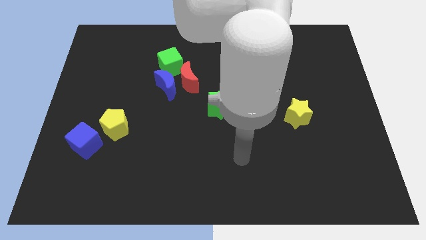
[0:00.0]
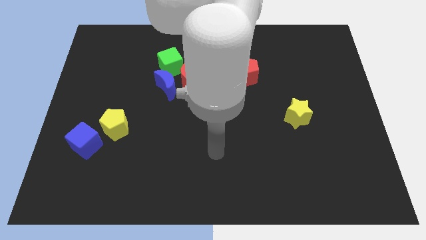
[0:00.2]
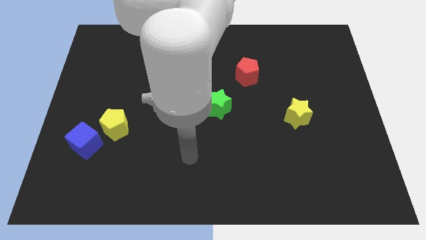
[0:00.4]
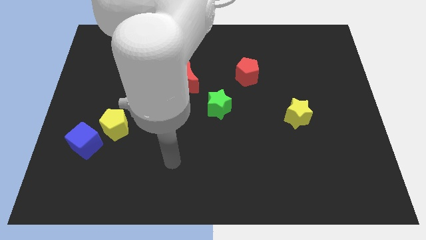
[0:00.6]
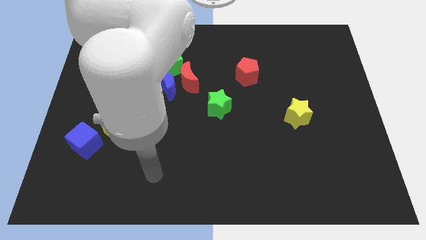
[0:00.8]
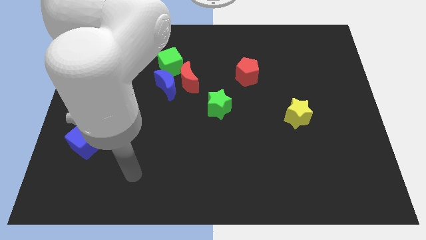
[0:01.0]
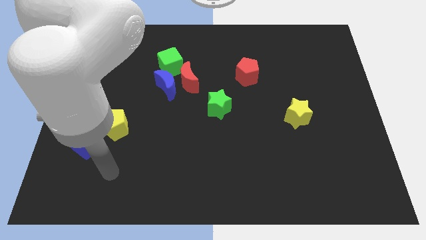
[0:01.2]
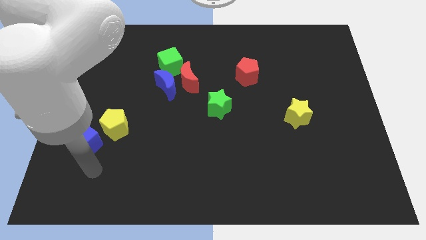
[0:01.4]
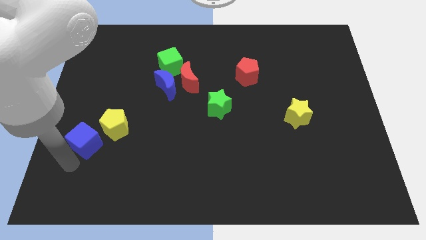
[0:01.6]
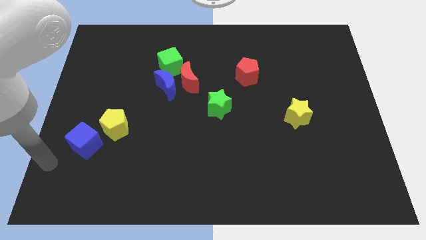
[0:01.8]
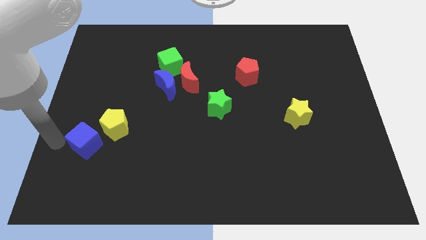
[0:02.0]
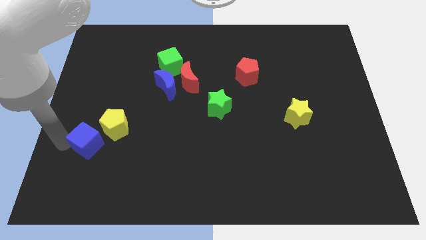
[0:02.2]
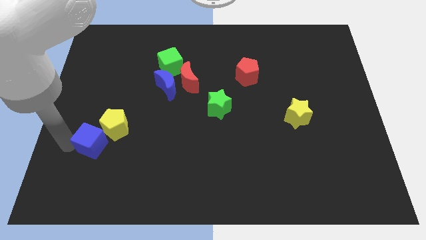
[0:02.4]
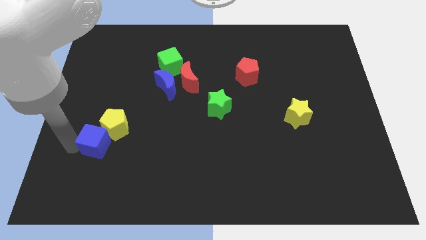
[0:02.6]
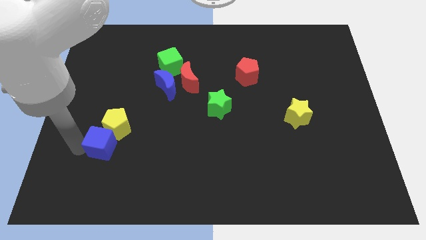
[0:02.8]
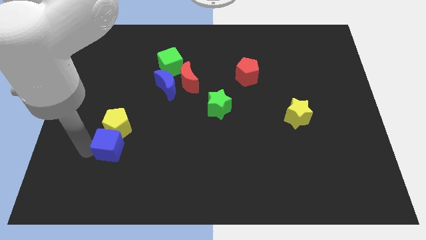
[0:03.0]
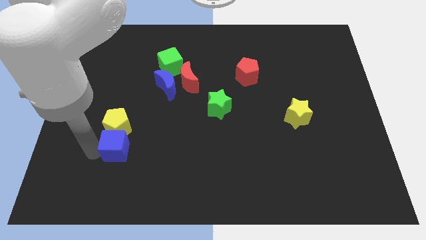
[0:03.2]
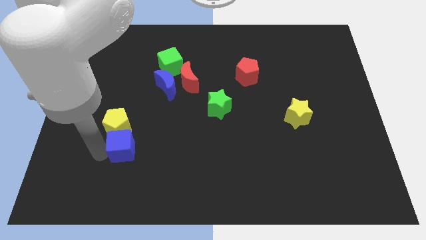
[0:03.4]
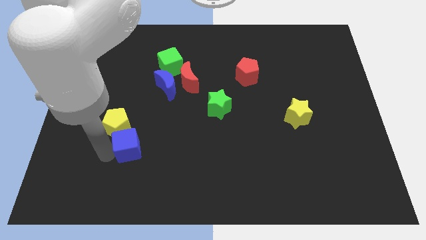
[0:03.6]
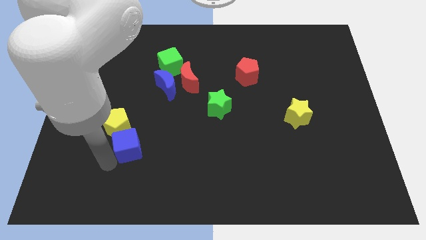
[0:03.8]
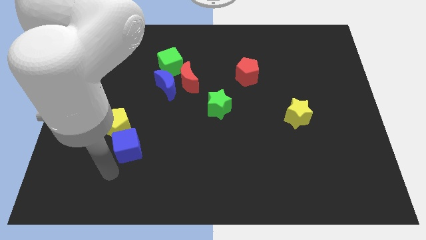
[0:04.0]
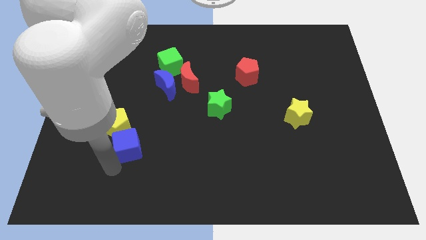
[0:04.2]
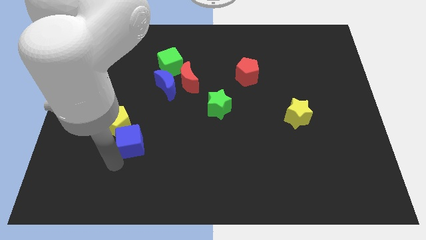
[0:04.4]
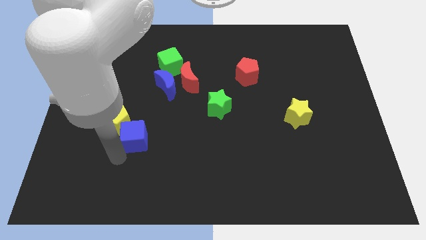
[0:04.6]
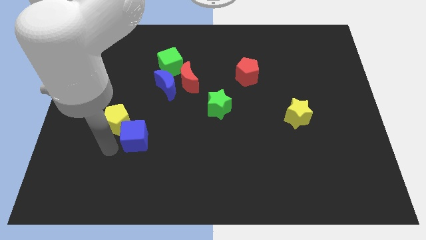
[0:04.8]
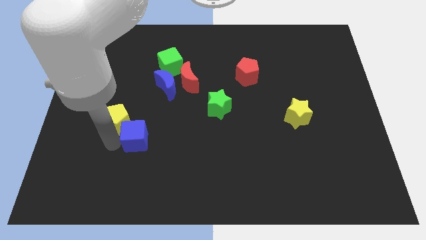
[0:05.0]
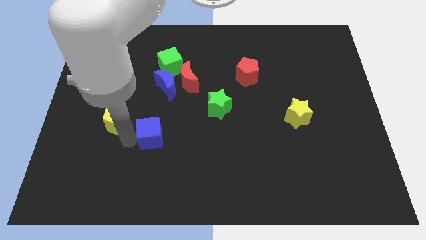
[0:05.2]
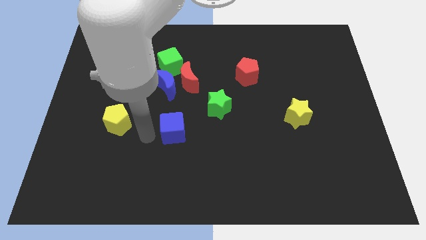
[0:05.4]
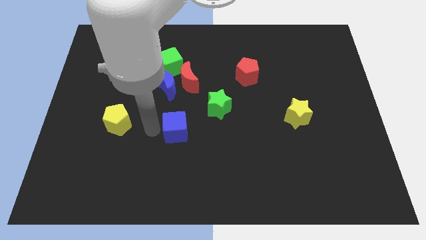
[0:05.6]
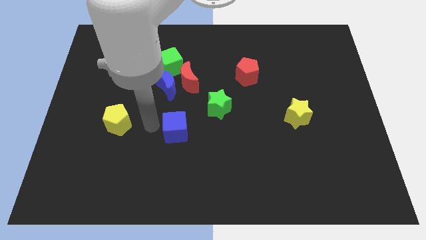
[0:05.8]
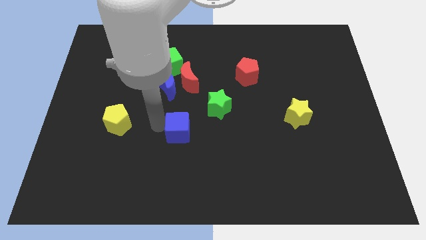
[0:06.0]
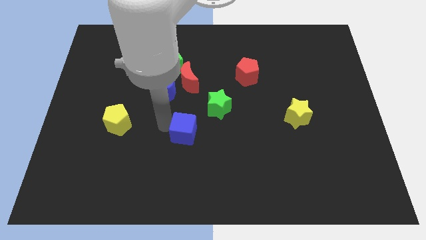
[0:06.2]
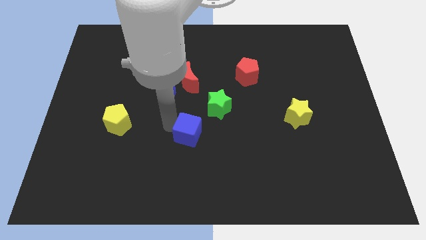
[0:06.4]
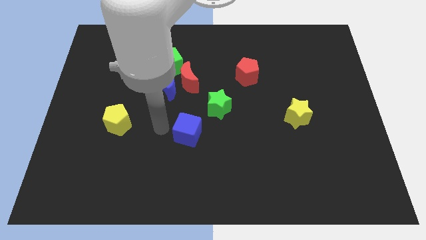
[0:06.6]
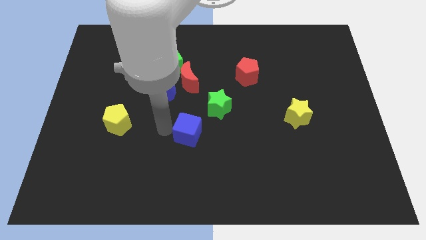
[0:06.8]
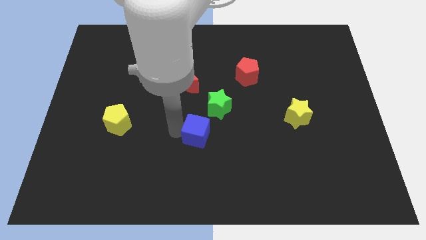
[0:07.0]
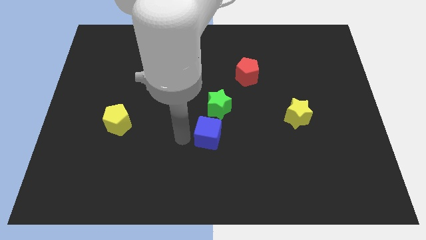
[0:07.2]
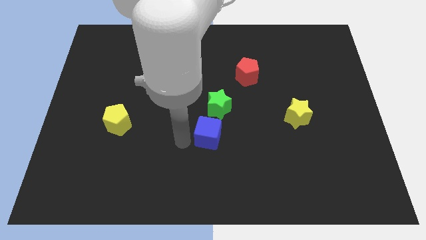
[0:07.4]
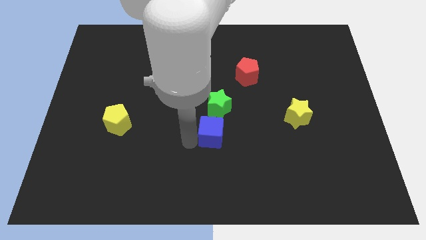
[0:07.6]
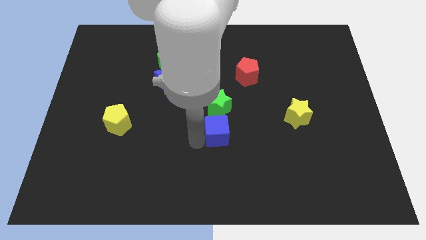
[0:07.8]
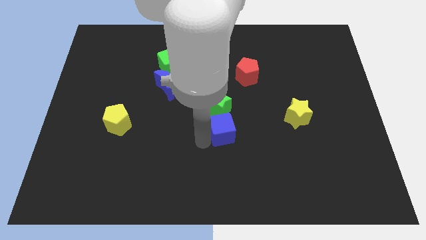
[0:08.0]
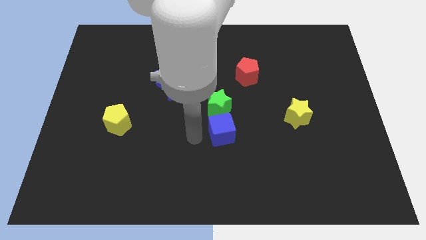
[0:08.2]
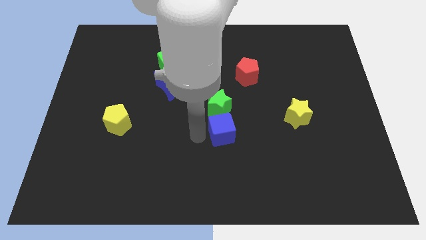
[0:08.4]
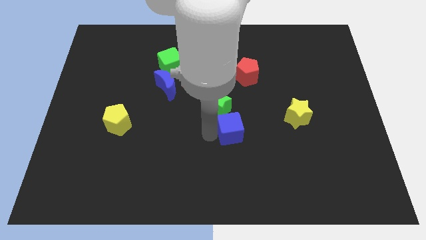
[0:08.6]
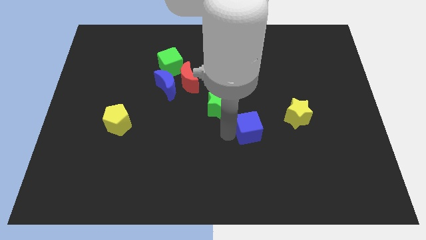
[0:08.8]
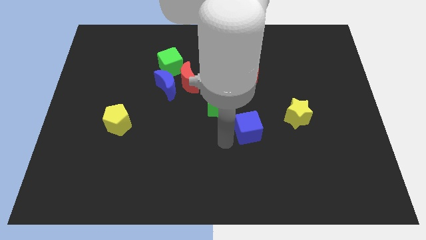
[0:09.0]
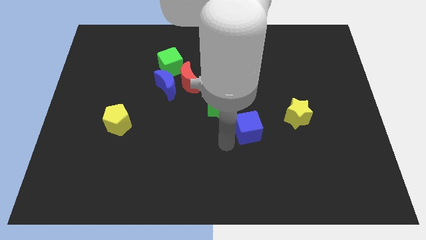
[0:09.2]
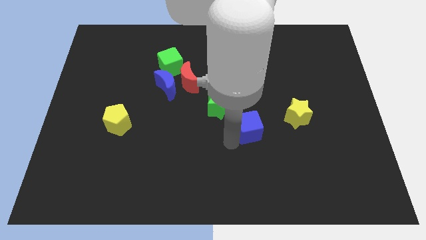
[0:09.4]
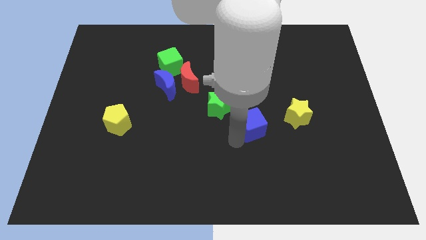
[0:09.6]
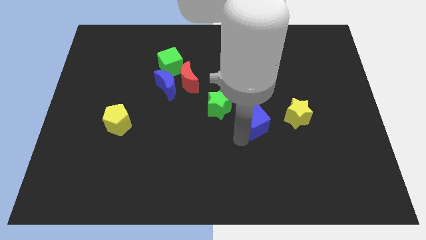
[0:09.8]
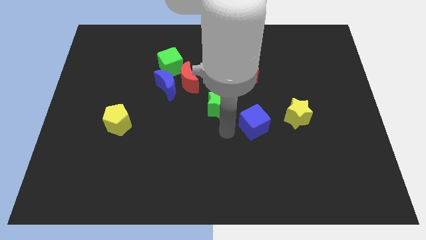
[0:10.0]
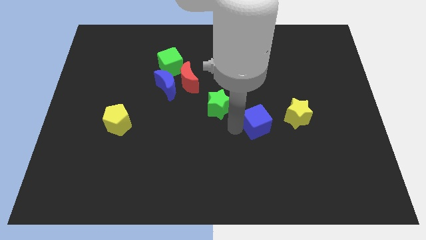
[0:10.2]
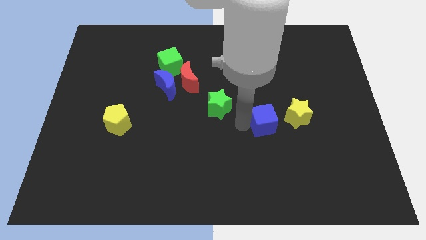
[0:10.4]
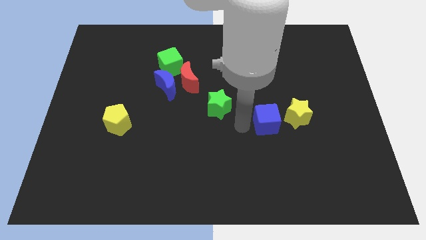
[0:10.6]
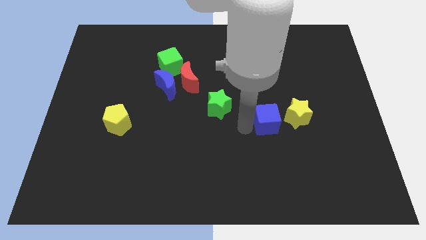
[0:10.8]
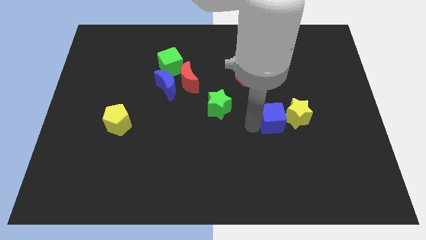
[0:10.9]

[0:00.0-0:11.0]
put the blue cube close to the yellow star

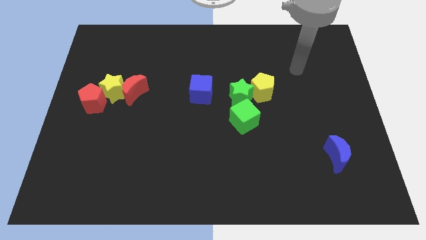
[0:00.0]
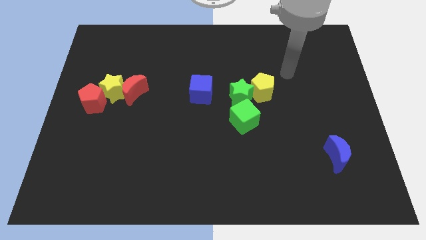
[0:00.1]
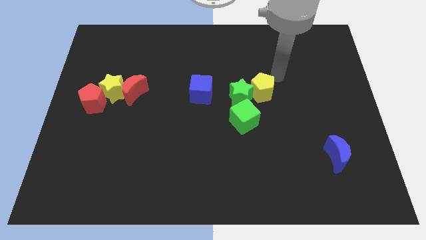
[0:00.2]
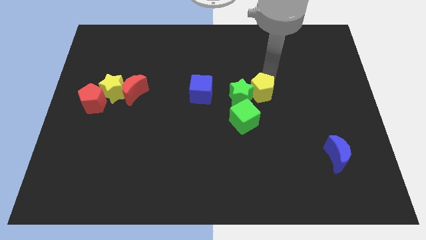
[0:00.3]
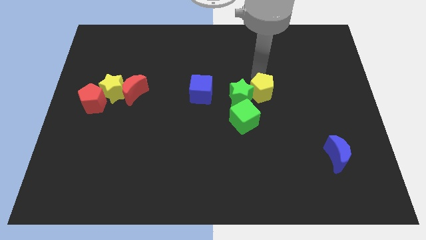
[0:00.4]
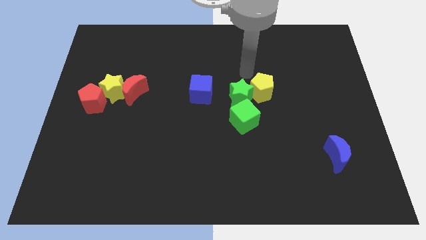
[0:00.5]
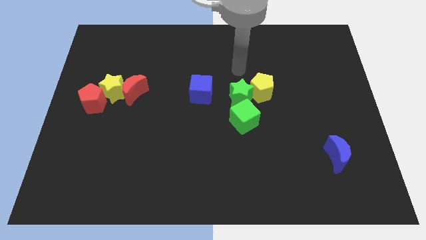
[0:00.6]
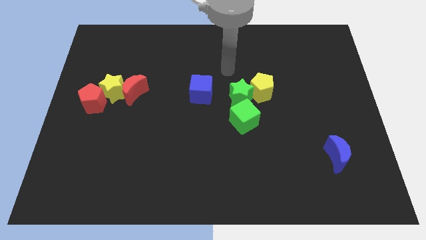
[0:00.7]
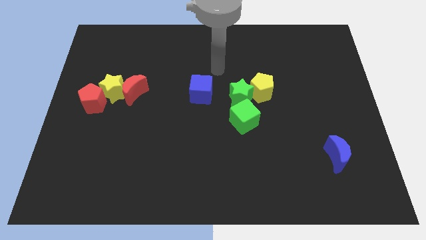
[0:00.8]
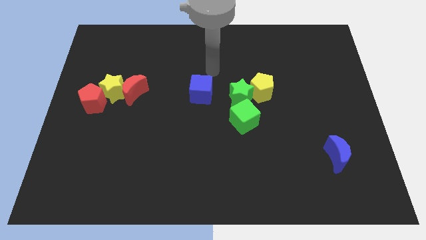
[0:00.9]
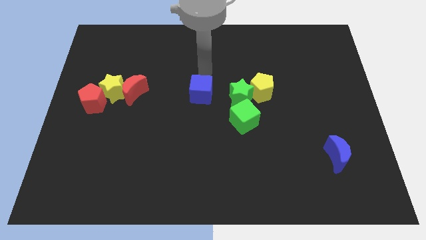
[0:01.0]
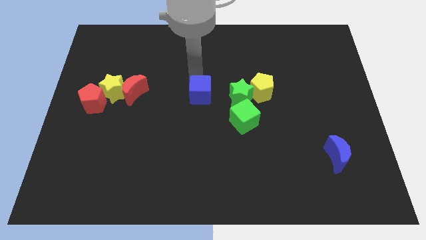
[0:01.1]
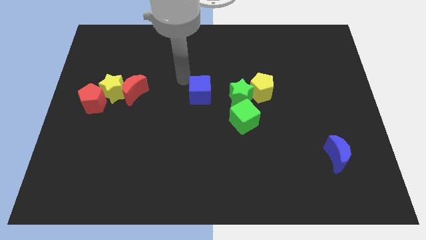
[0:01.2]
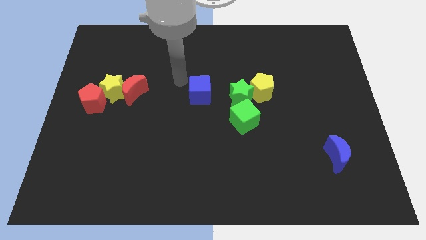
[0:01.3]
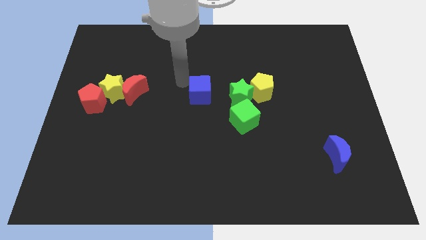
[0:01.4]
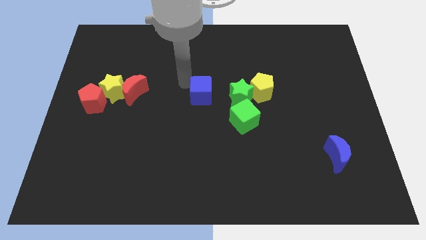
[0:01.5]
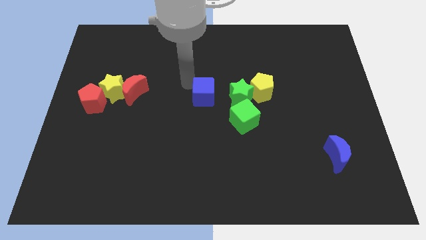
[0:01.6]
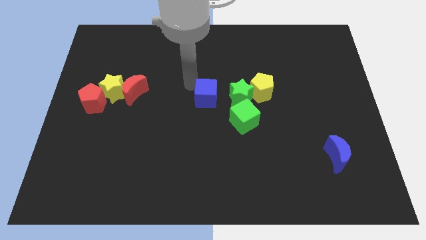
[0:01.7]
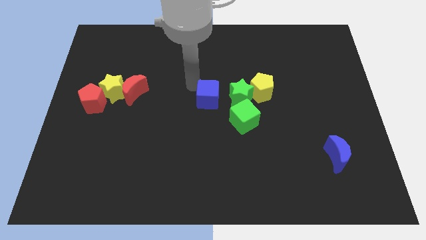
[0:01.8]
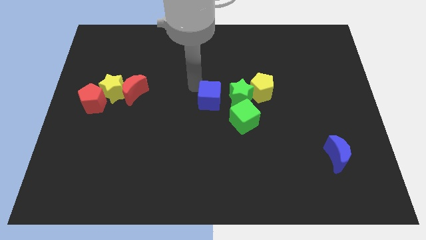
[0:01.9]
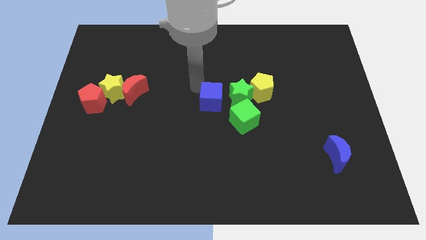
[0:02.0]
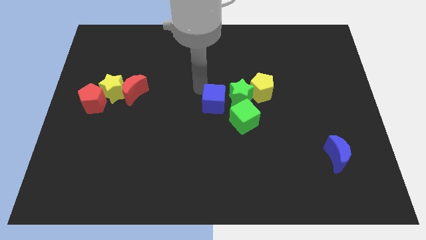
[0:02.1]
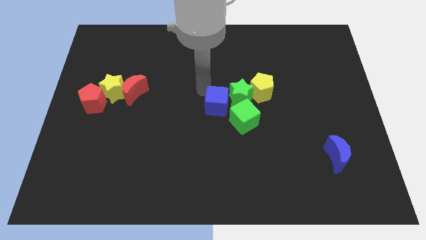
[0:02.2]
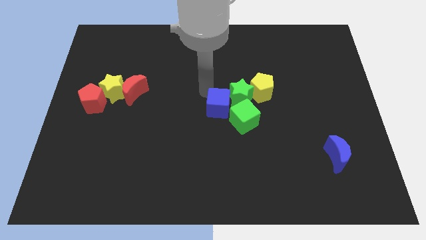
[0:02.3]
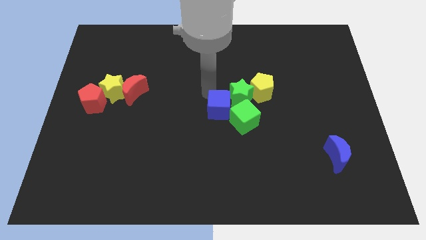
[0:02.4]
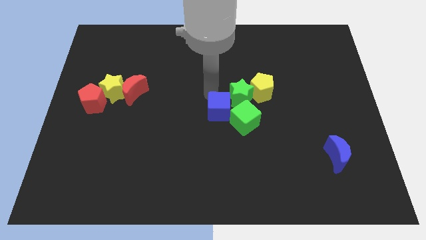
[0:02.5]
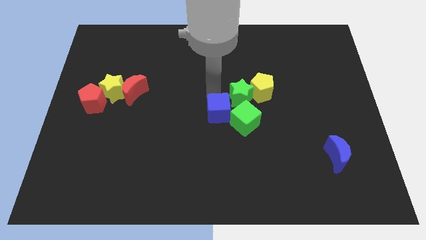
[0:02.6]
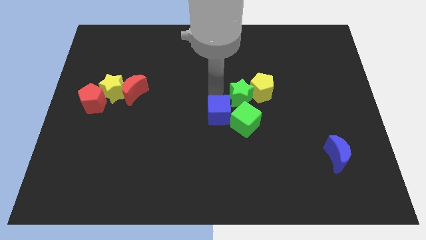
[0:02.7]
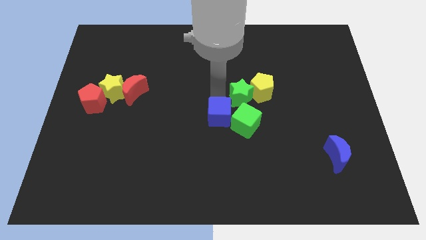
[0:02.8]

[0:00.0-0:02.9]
slide the blue cube to the green cube

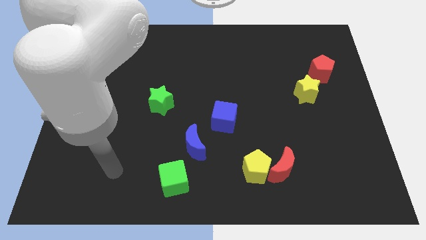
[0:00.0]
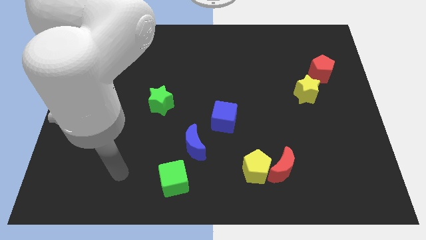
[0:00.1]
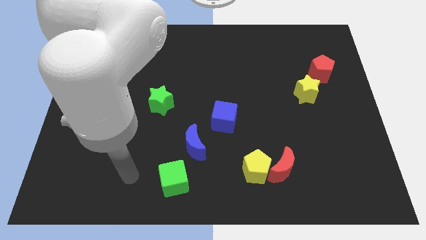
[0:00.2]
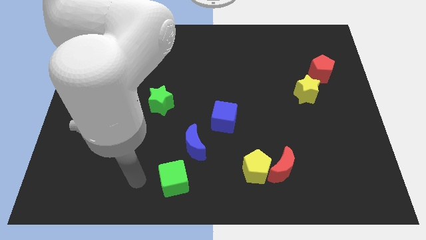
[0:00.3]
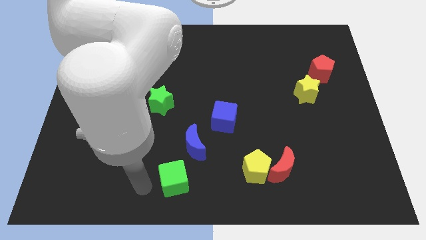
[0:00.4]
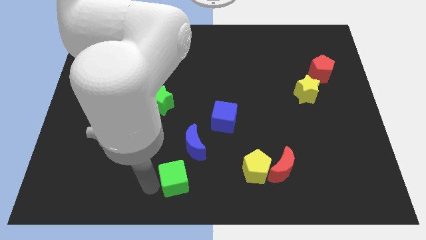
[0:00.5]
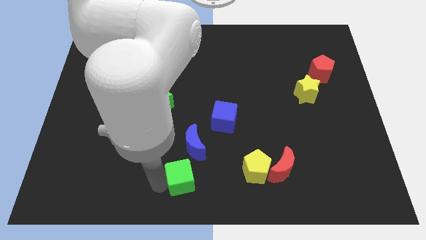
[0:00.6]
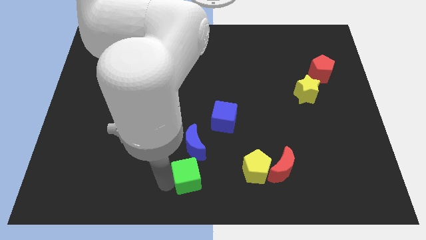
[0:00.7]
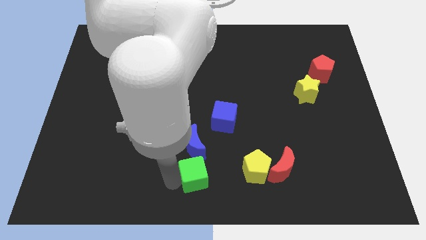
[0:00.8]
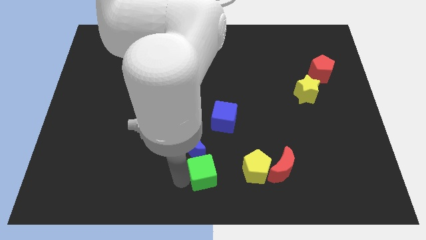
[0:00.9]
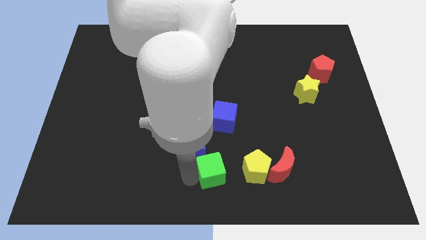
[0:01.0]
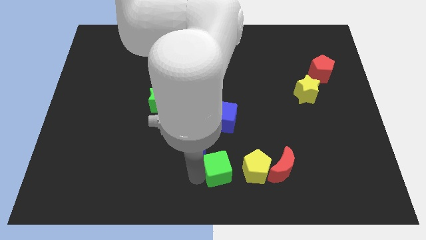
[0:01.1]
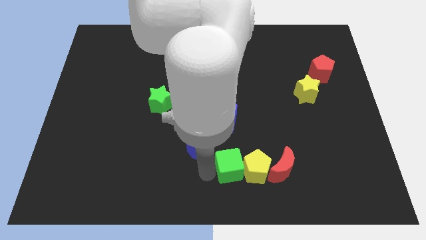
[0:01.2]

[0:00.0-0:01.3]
slide the green cube towards the yellow pentagon
